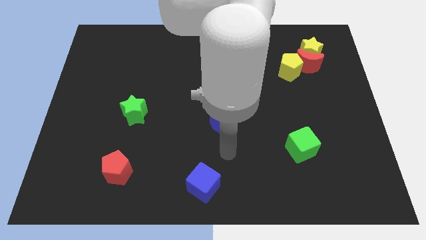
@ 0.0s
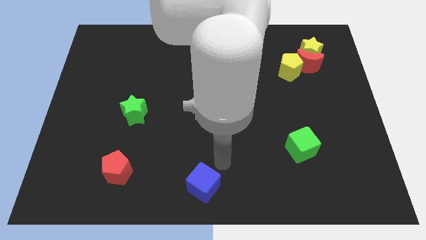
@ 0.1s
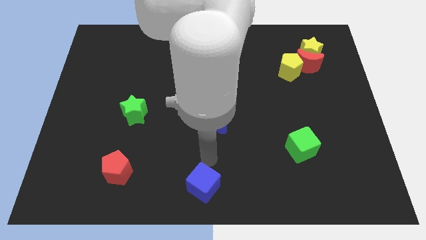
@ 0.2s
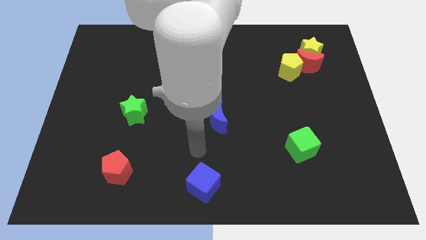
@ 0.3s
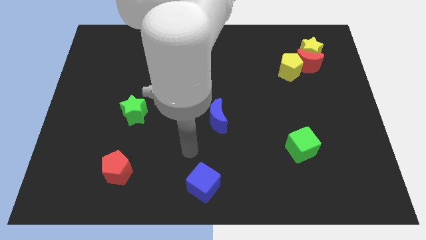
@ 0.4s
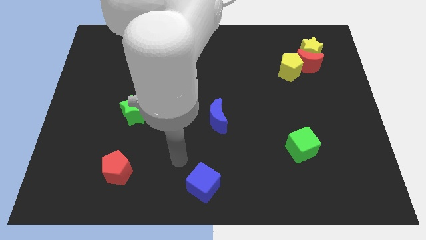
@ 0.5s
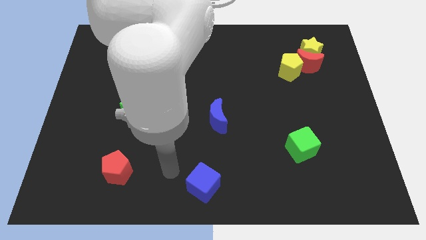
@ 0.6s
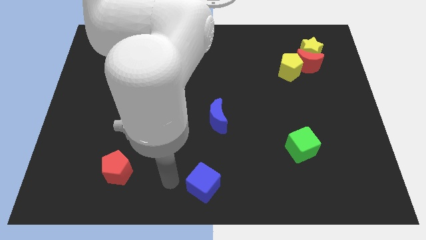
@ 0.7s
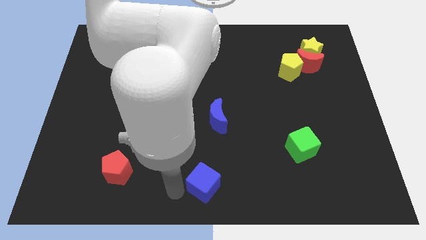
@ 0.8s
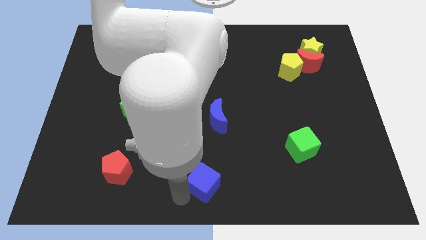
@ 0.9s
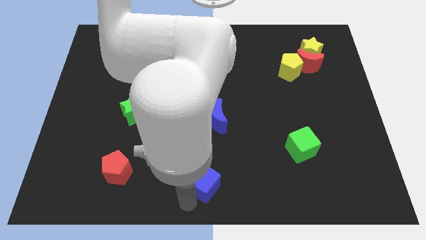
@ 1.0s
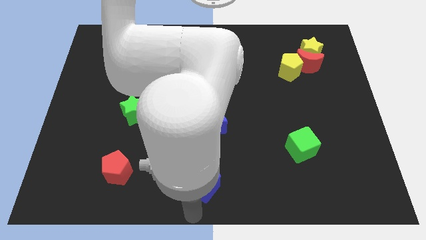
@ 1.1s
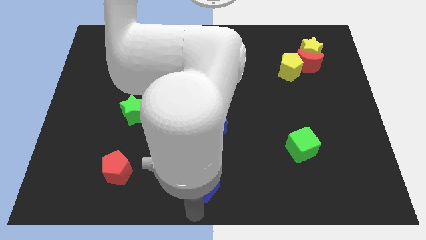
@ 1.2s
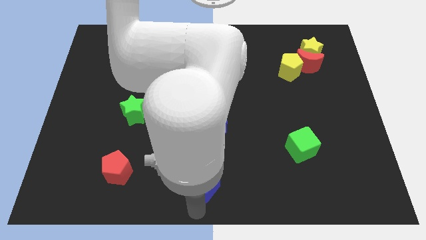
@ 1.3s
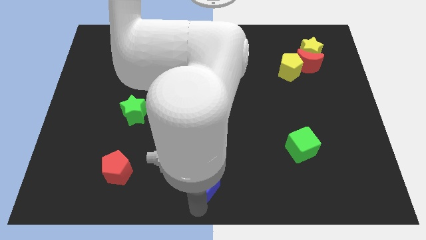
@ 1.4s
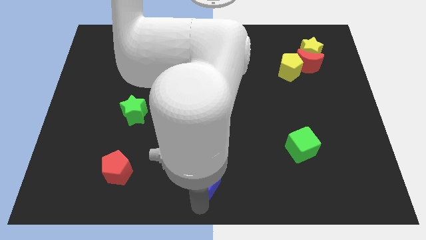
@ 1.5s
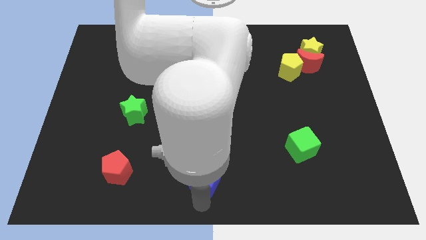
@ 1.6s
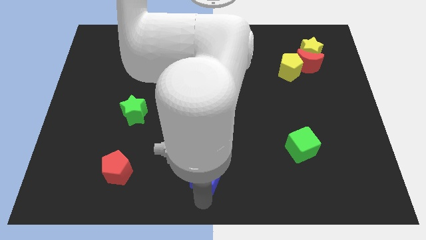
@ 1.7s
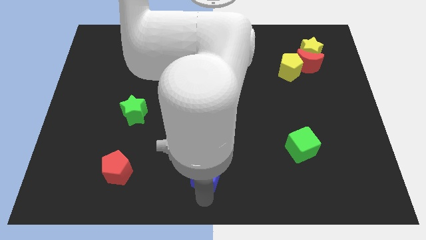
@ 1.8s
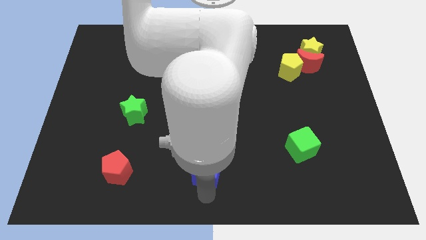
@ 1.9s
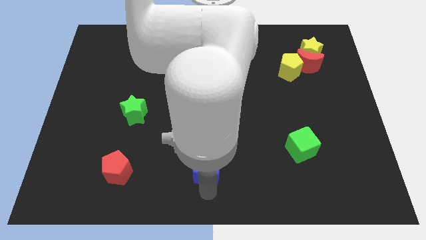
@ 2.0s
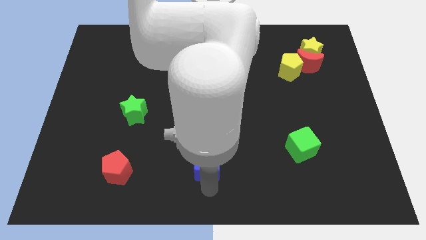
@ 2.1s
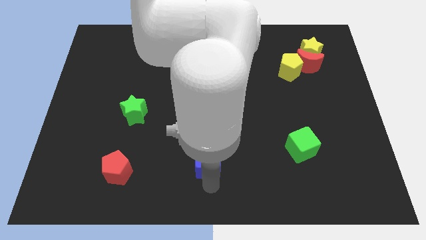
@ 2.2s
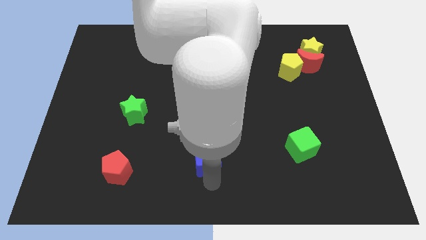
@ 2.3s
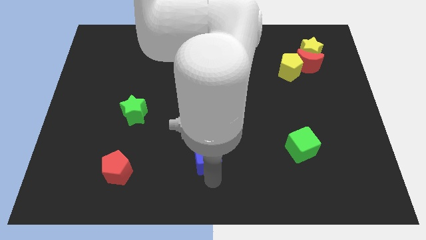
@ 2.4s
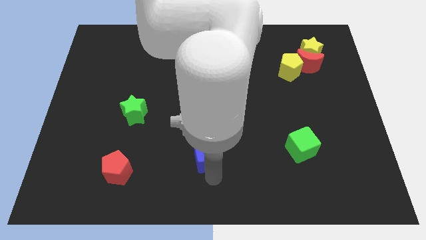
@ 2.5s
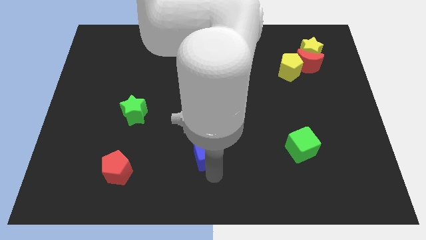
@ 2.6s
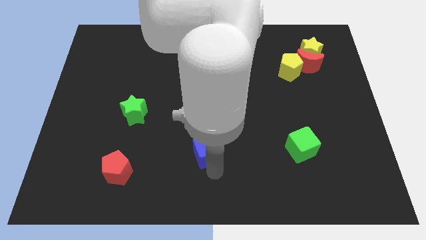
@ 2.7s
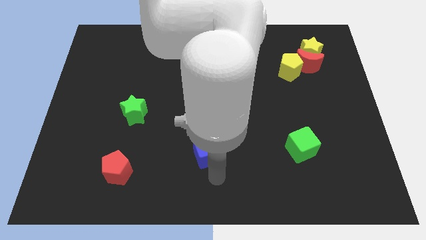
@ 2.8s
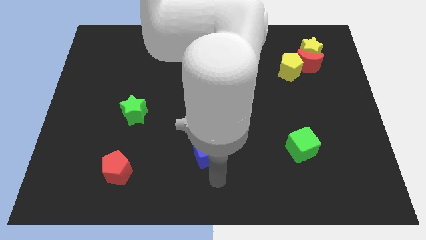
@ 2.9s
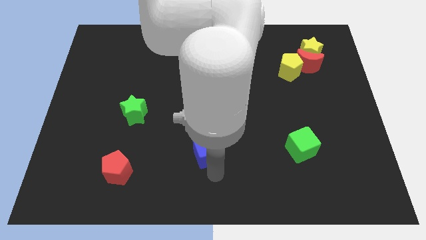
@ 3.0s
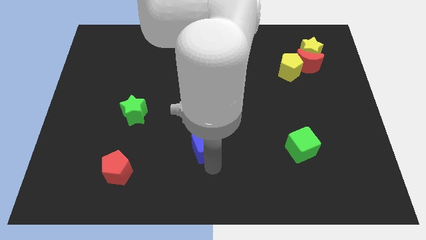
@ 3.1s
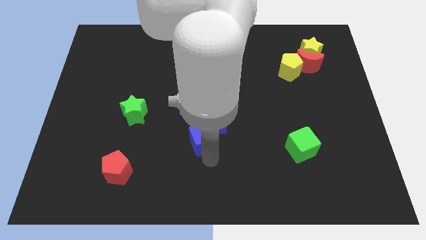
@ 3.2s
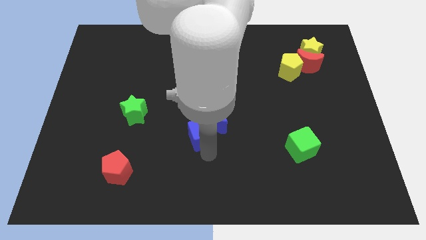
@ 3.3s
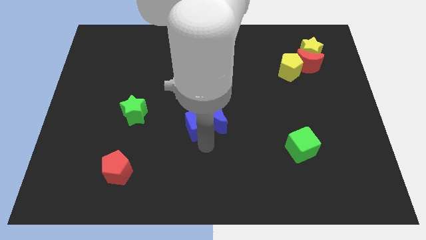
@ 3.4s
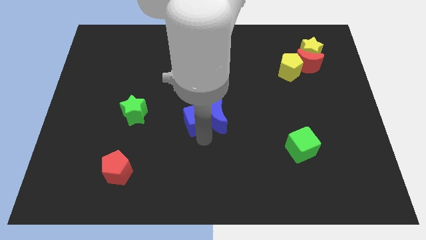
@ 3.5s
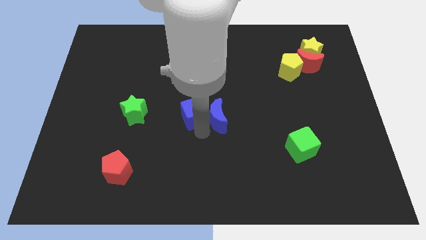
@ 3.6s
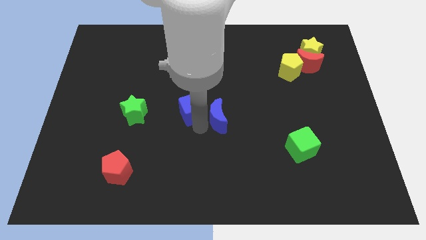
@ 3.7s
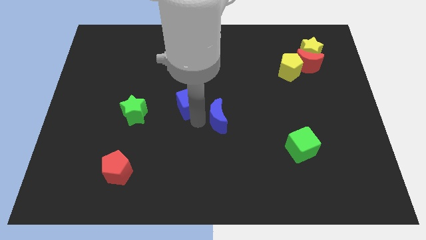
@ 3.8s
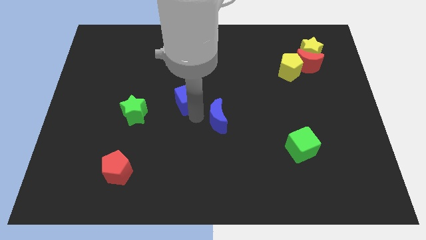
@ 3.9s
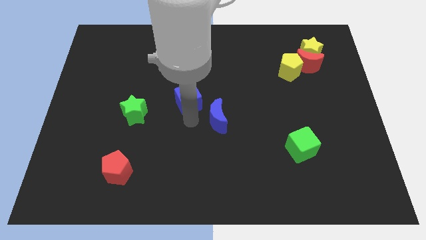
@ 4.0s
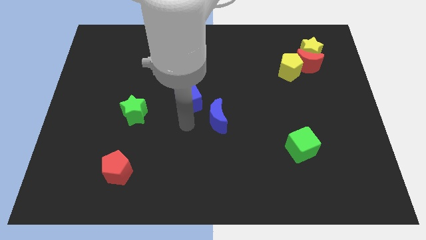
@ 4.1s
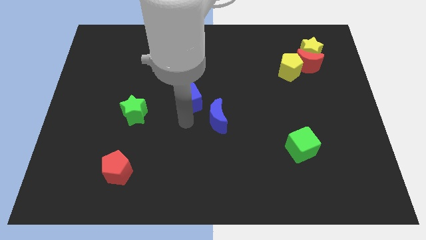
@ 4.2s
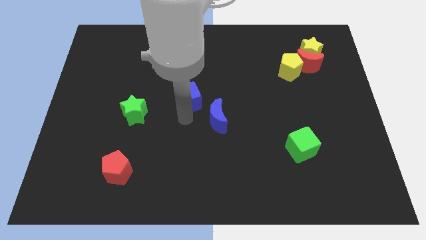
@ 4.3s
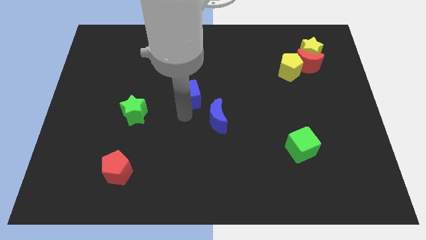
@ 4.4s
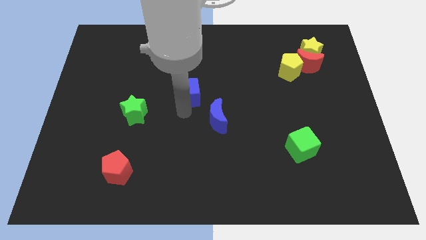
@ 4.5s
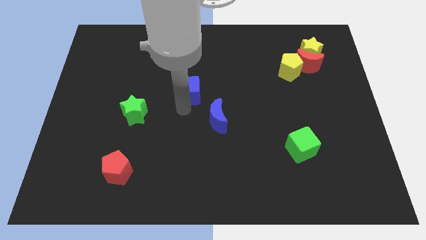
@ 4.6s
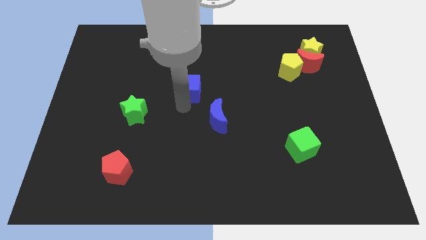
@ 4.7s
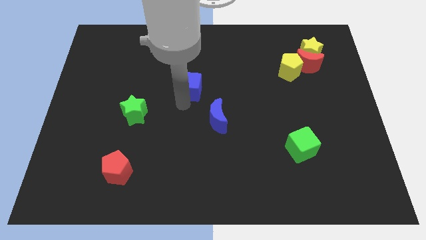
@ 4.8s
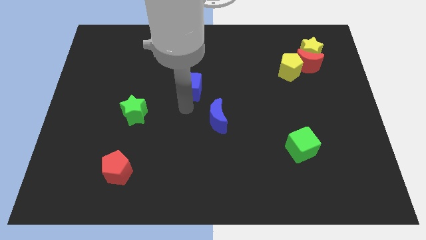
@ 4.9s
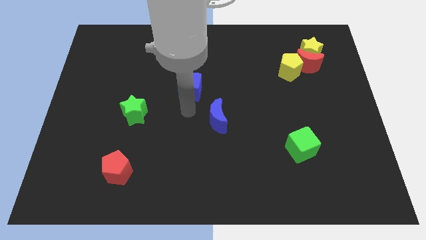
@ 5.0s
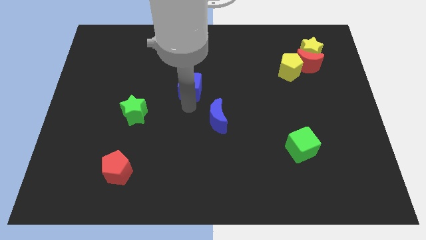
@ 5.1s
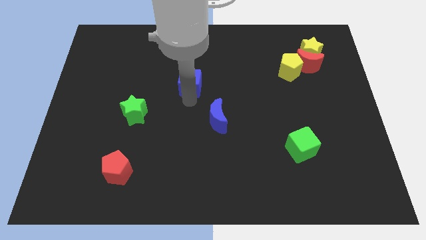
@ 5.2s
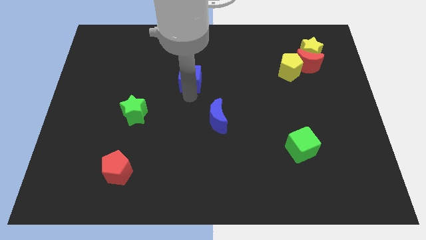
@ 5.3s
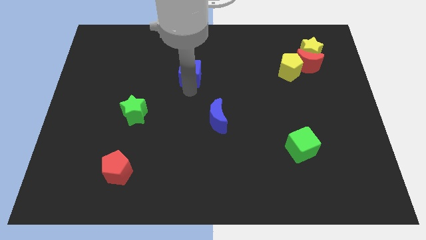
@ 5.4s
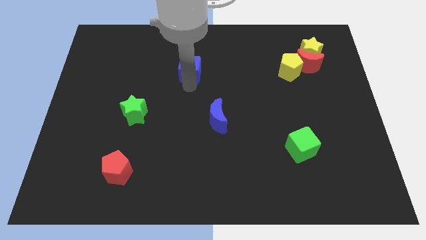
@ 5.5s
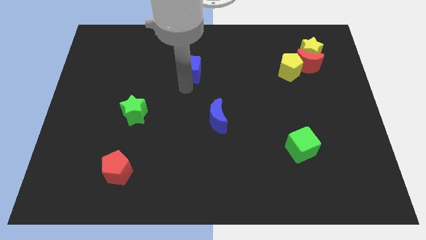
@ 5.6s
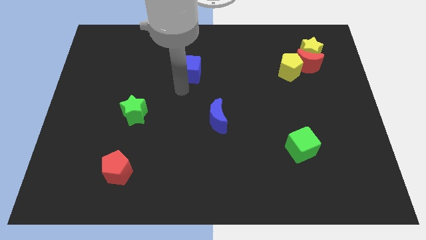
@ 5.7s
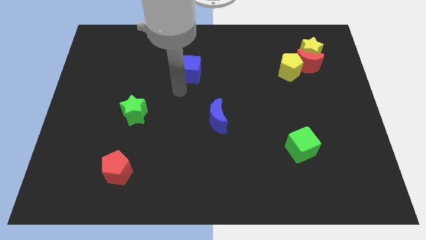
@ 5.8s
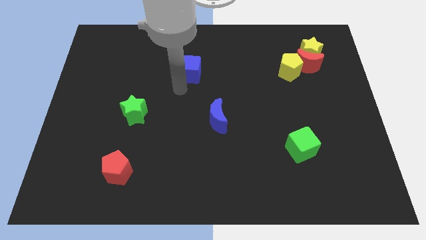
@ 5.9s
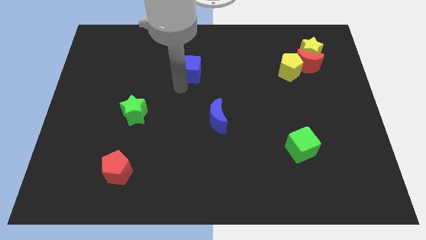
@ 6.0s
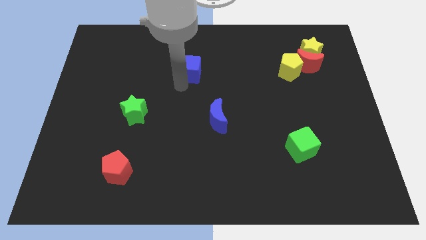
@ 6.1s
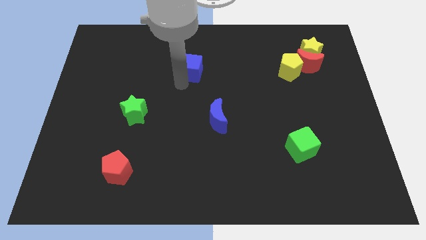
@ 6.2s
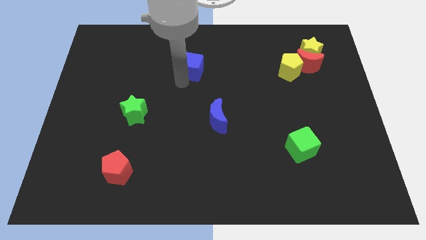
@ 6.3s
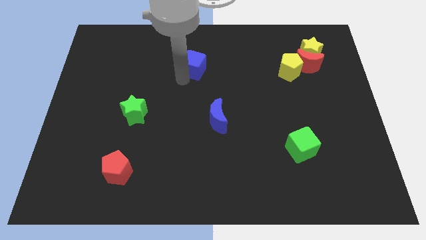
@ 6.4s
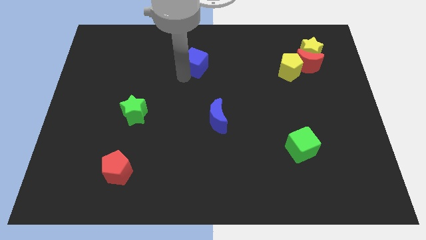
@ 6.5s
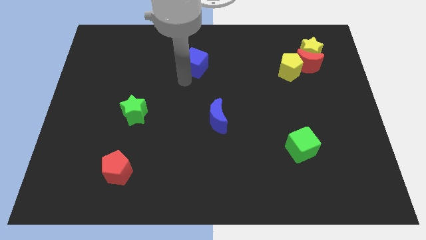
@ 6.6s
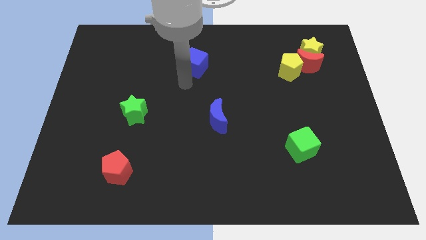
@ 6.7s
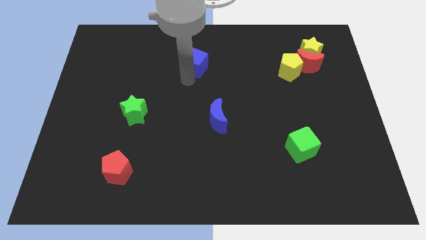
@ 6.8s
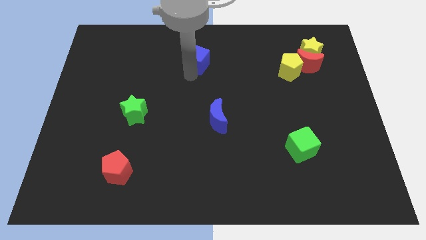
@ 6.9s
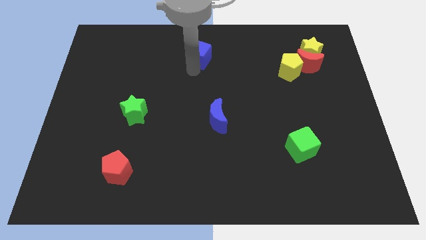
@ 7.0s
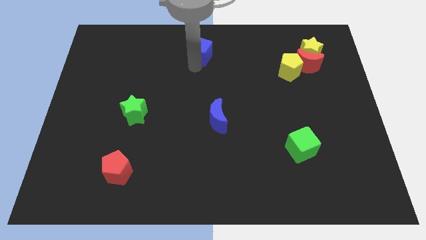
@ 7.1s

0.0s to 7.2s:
move the blue cube to the towards your base
